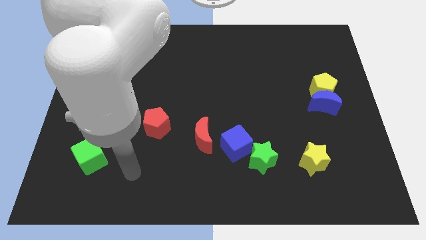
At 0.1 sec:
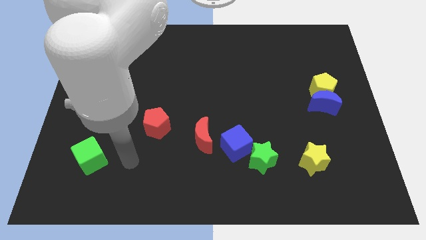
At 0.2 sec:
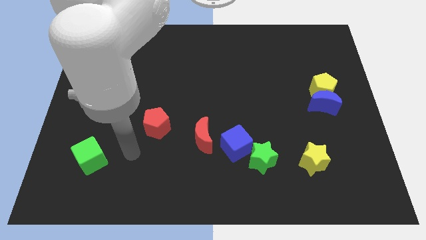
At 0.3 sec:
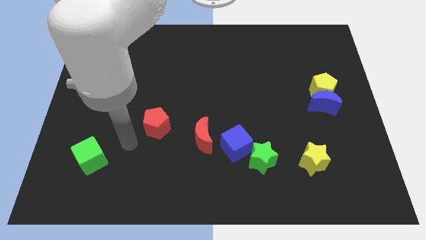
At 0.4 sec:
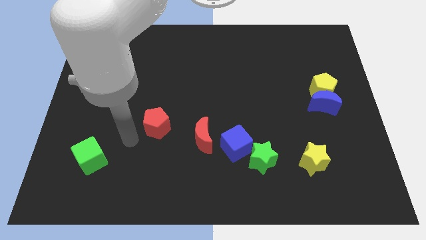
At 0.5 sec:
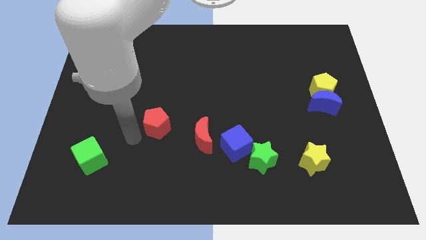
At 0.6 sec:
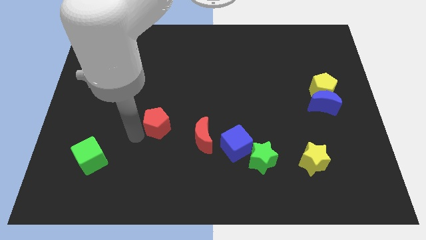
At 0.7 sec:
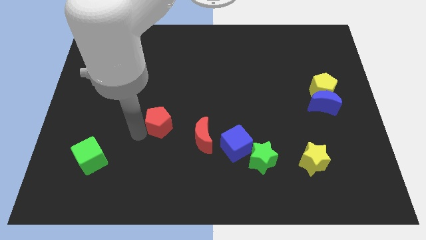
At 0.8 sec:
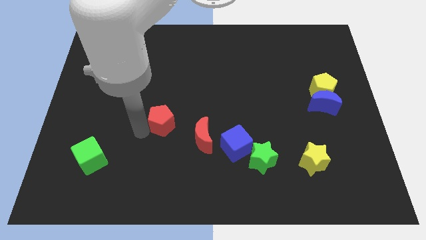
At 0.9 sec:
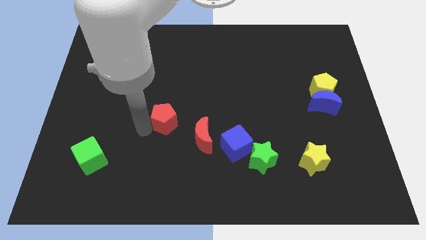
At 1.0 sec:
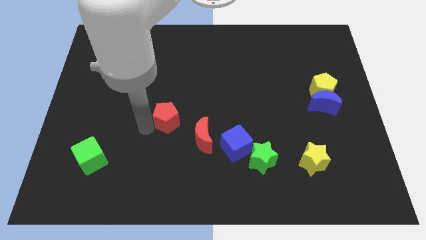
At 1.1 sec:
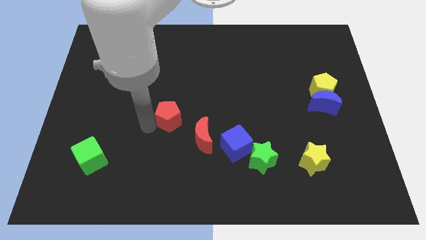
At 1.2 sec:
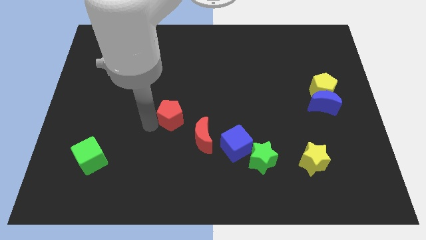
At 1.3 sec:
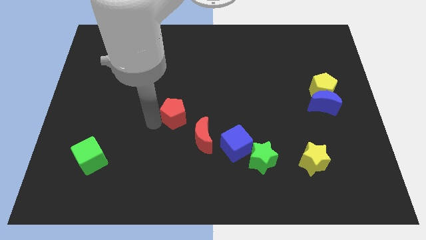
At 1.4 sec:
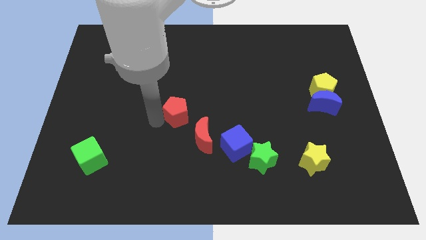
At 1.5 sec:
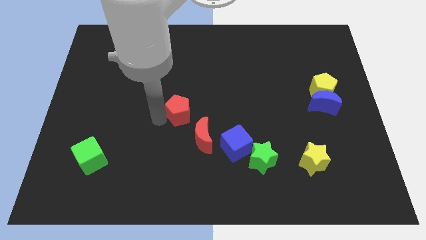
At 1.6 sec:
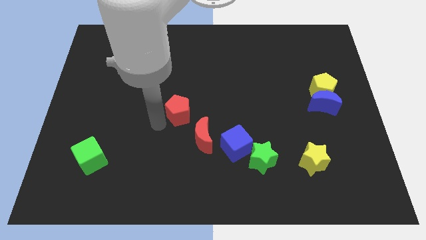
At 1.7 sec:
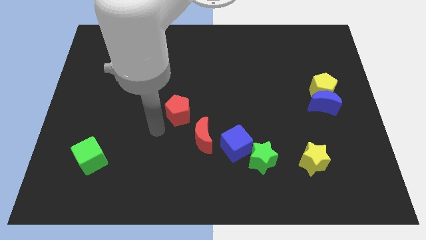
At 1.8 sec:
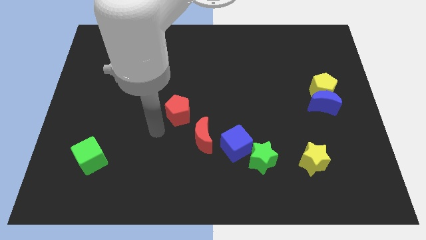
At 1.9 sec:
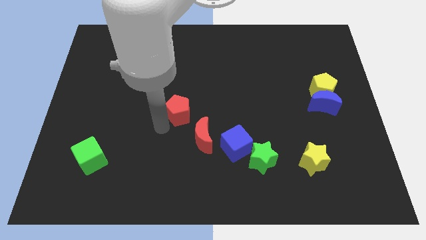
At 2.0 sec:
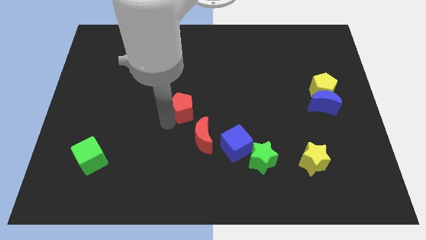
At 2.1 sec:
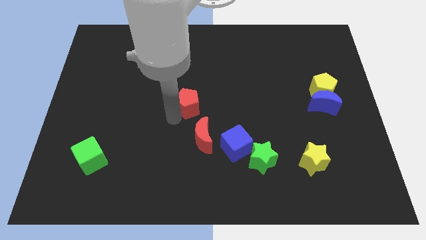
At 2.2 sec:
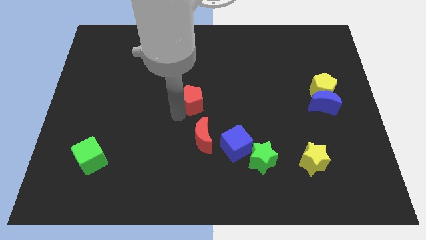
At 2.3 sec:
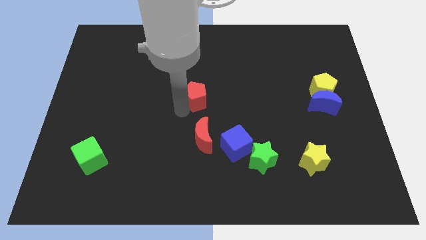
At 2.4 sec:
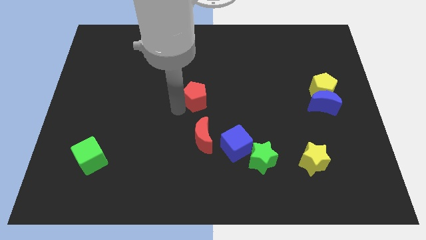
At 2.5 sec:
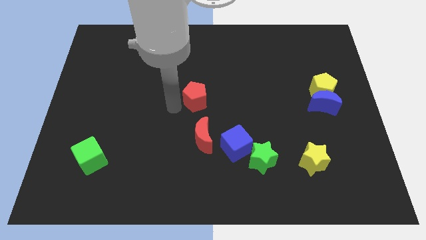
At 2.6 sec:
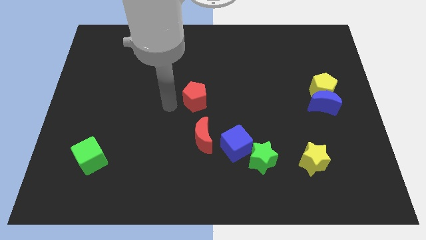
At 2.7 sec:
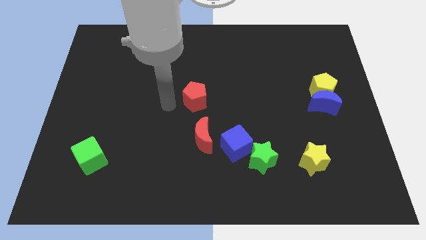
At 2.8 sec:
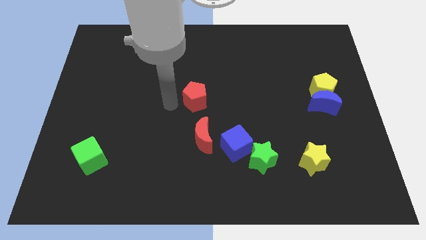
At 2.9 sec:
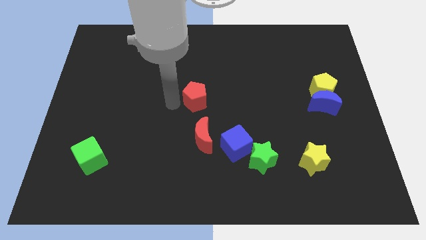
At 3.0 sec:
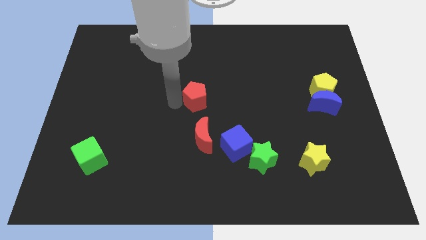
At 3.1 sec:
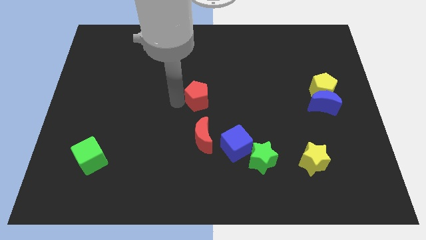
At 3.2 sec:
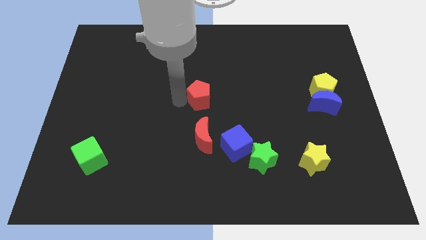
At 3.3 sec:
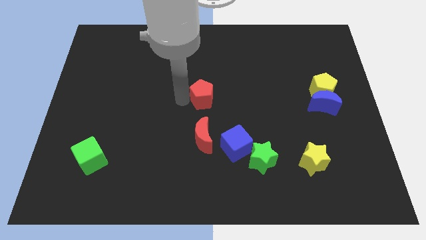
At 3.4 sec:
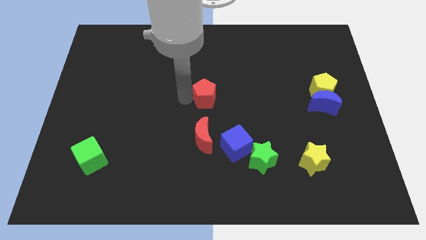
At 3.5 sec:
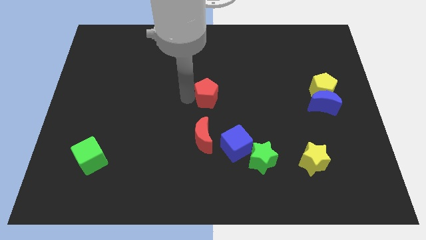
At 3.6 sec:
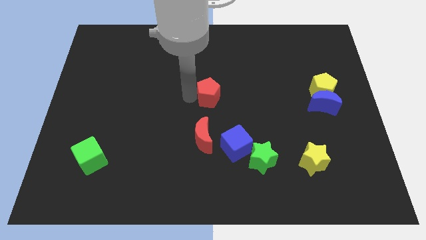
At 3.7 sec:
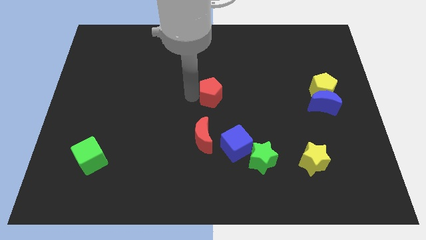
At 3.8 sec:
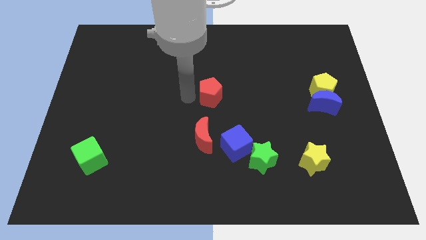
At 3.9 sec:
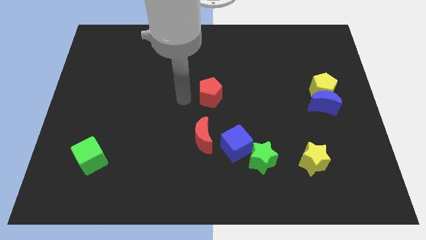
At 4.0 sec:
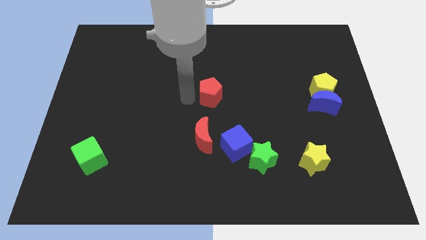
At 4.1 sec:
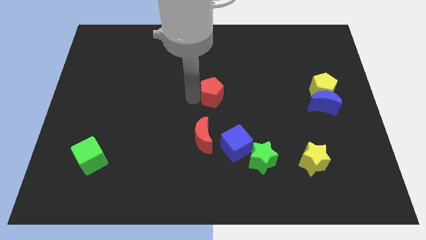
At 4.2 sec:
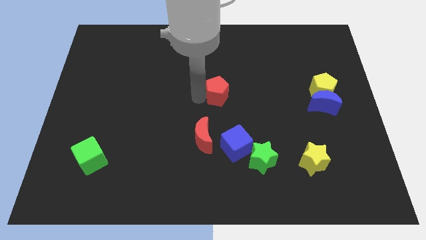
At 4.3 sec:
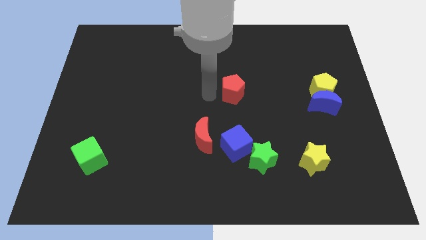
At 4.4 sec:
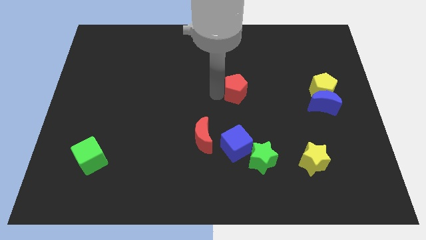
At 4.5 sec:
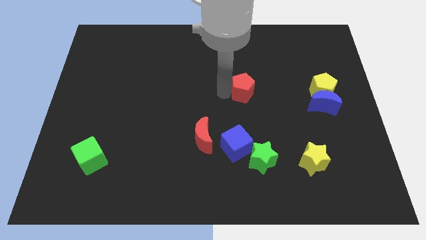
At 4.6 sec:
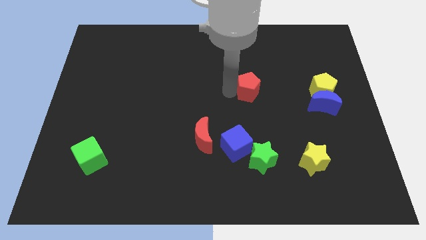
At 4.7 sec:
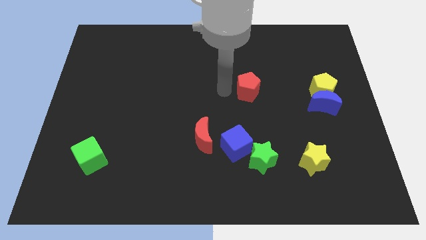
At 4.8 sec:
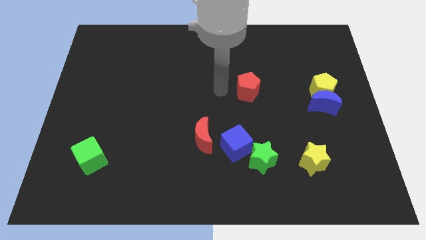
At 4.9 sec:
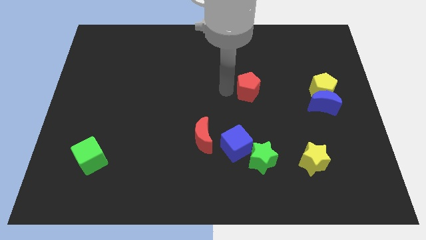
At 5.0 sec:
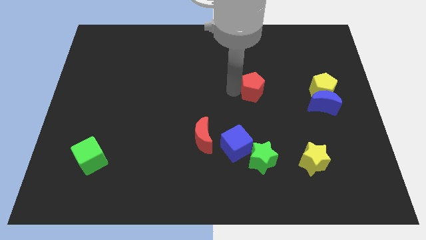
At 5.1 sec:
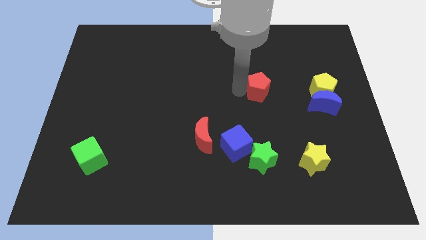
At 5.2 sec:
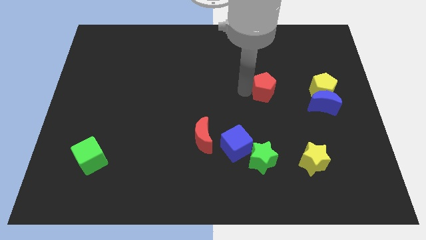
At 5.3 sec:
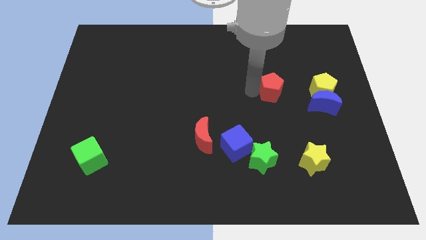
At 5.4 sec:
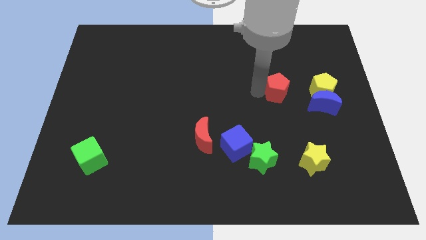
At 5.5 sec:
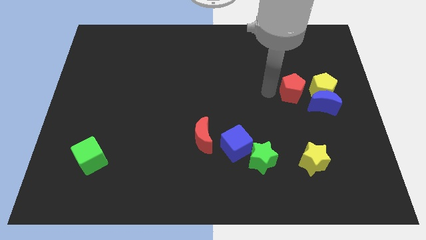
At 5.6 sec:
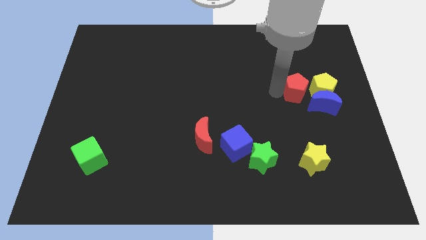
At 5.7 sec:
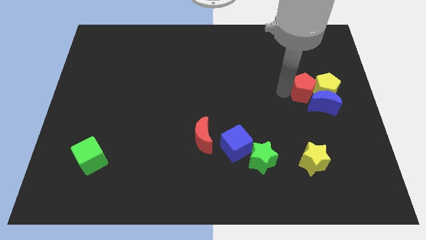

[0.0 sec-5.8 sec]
push the red pentagon to the yellow pentagon

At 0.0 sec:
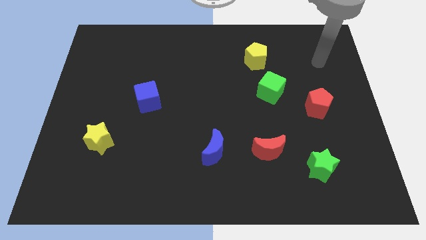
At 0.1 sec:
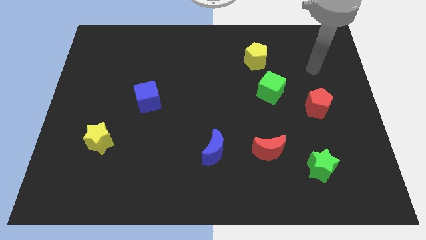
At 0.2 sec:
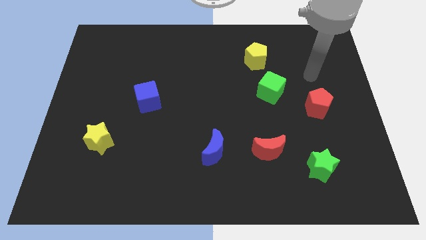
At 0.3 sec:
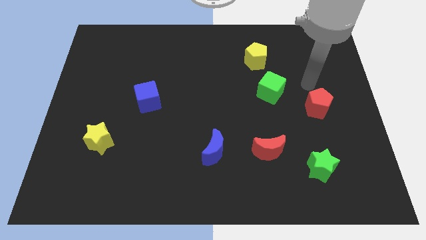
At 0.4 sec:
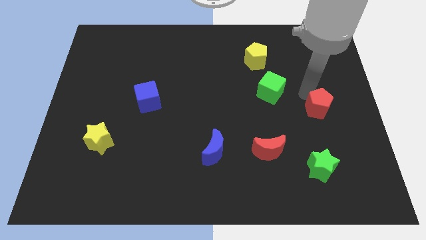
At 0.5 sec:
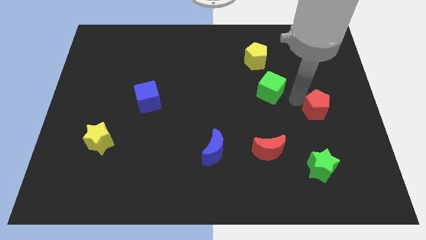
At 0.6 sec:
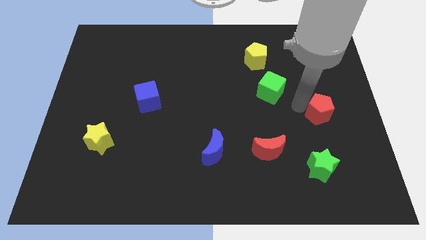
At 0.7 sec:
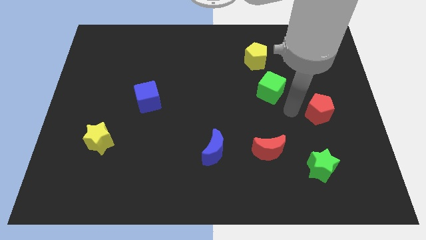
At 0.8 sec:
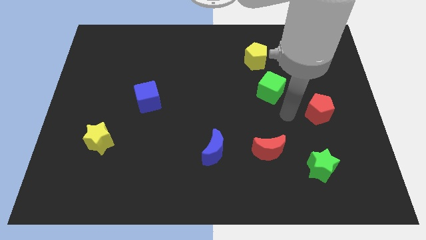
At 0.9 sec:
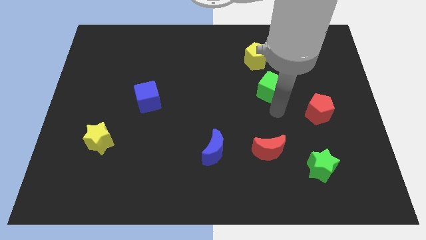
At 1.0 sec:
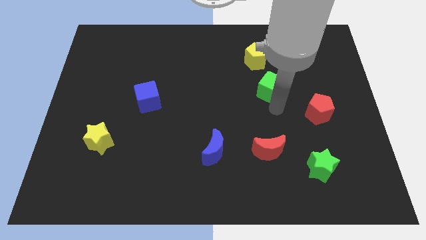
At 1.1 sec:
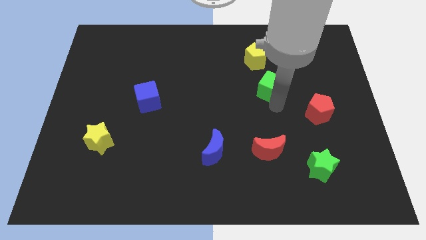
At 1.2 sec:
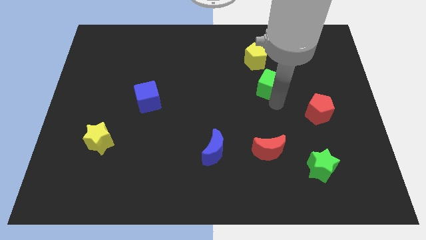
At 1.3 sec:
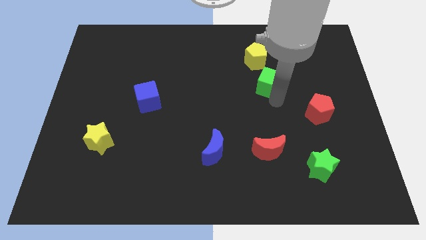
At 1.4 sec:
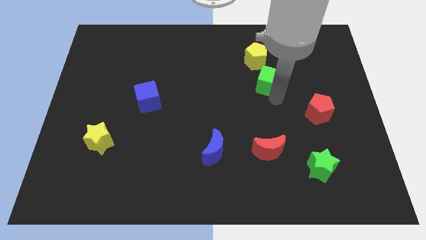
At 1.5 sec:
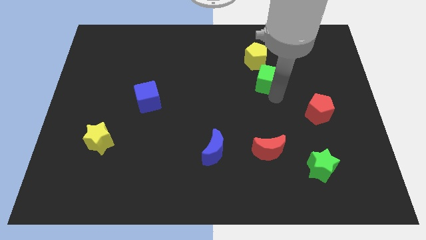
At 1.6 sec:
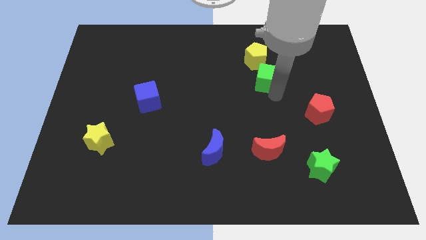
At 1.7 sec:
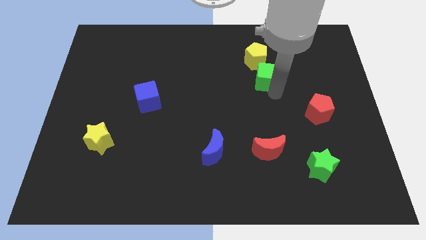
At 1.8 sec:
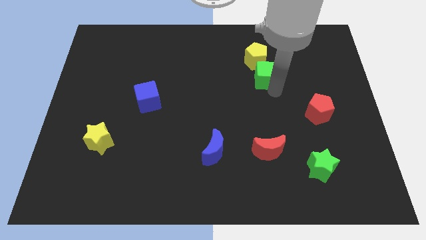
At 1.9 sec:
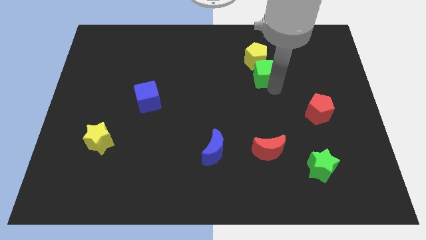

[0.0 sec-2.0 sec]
move the green cube next to the yellow pentagon

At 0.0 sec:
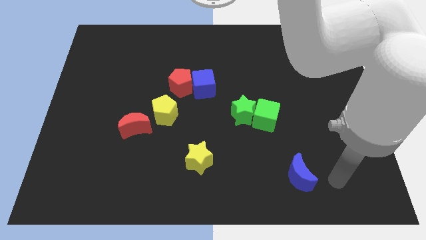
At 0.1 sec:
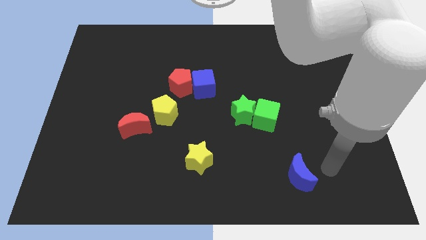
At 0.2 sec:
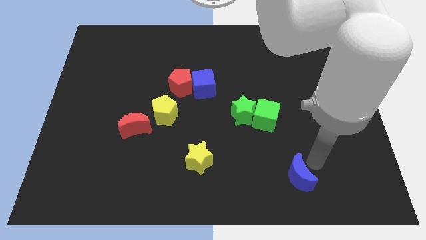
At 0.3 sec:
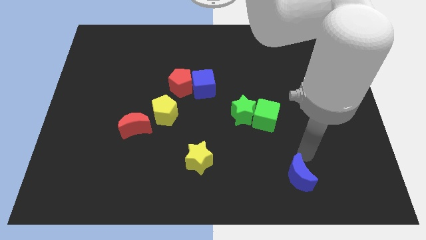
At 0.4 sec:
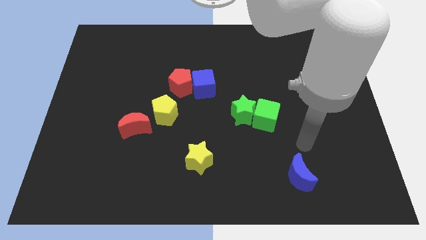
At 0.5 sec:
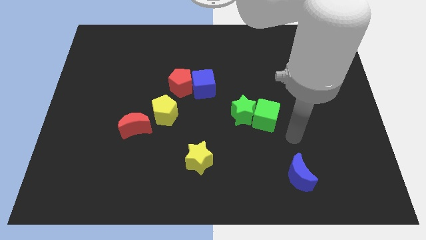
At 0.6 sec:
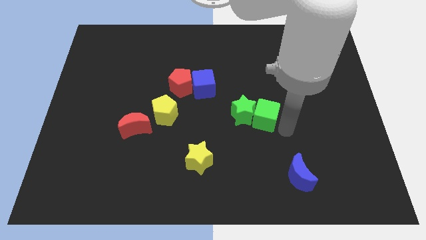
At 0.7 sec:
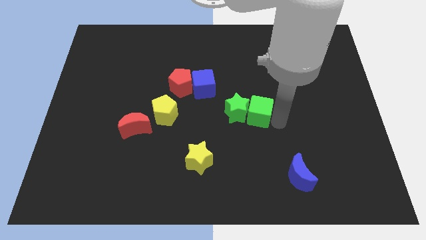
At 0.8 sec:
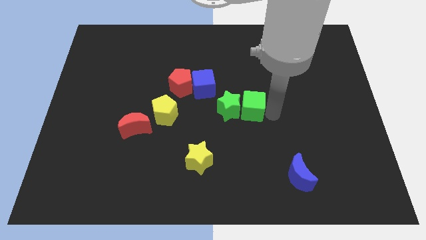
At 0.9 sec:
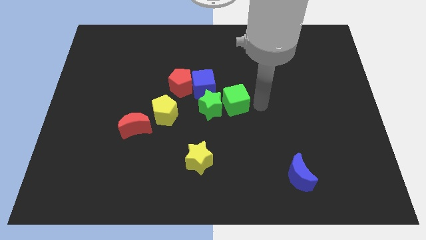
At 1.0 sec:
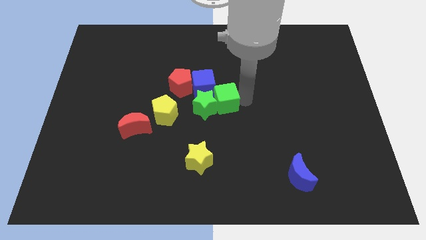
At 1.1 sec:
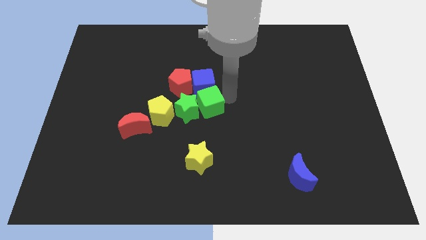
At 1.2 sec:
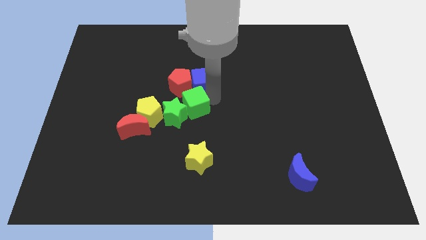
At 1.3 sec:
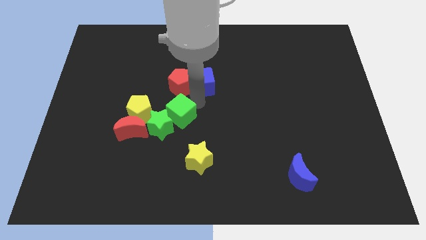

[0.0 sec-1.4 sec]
slide the green star to the red moon
